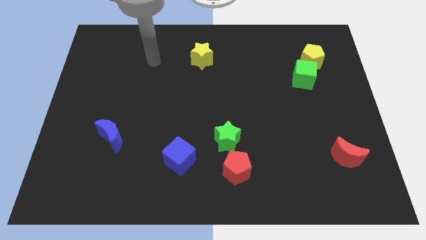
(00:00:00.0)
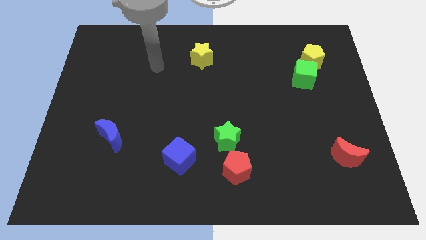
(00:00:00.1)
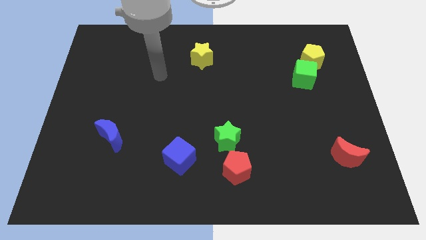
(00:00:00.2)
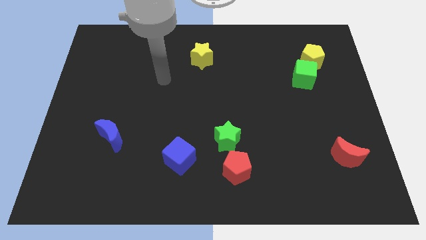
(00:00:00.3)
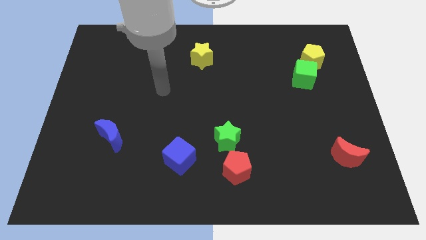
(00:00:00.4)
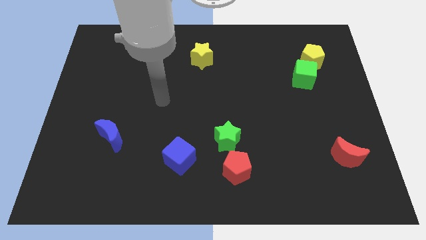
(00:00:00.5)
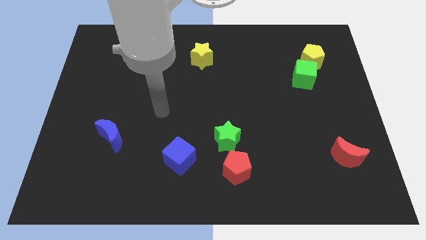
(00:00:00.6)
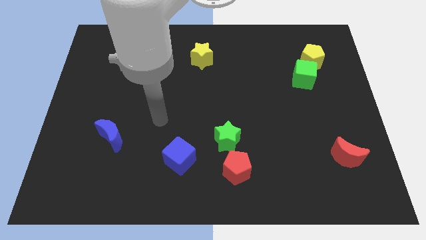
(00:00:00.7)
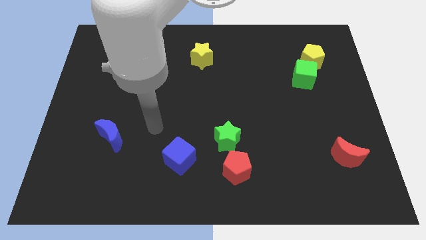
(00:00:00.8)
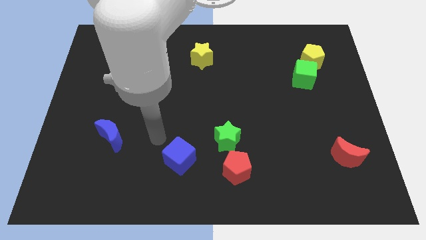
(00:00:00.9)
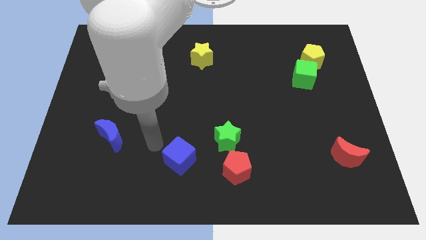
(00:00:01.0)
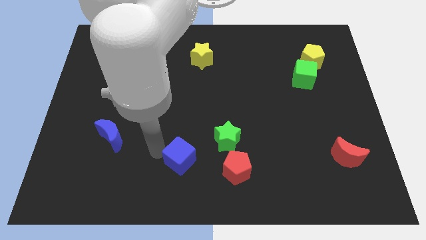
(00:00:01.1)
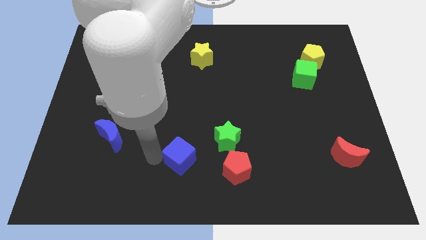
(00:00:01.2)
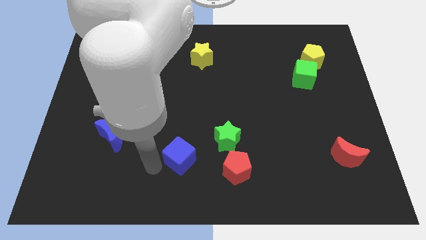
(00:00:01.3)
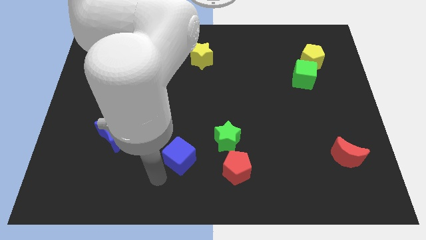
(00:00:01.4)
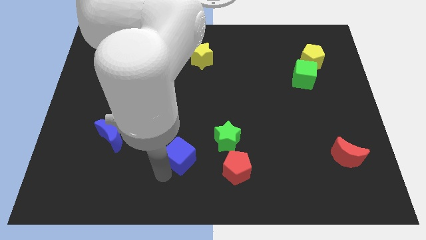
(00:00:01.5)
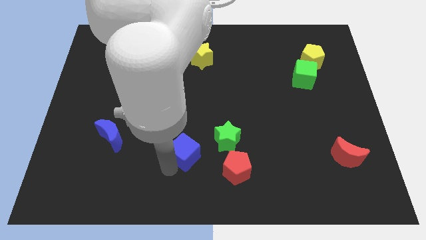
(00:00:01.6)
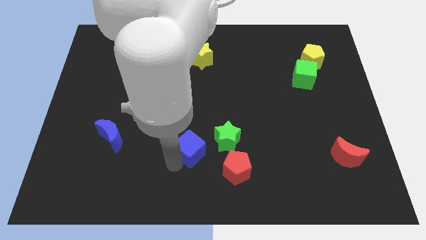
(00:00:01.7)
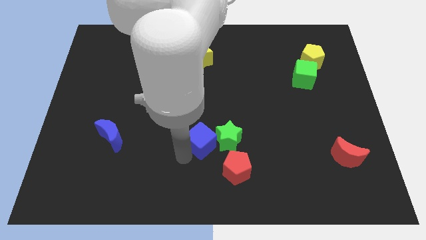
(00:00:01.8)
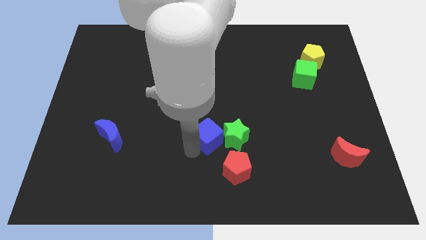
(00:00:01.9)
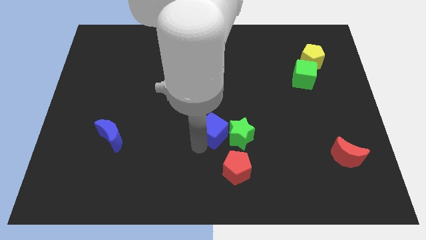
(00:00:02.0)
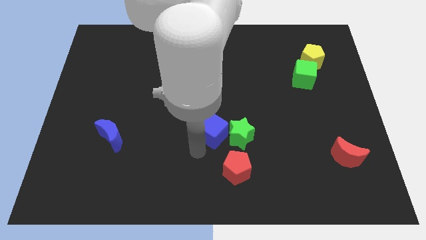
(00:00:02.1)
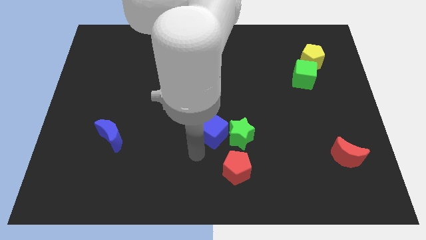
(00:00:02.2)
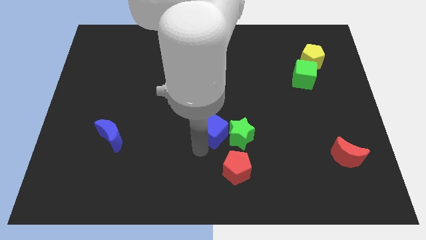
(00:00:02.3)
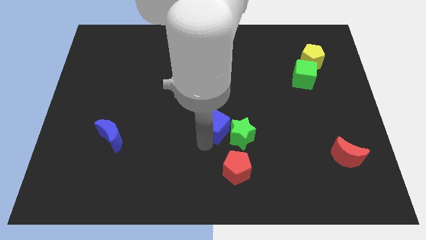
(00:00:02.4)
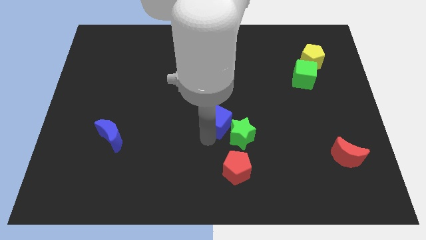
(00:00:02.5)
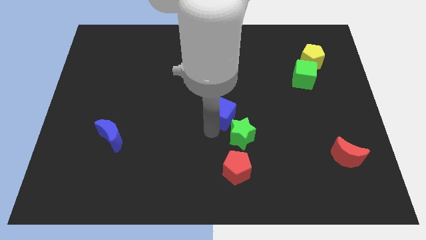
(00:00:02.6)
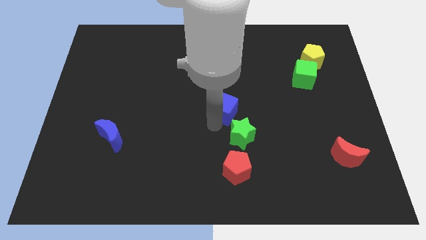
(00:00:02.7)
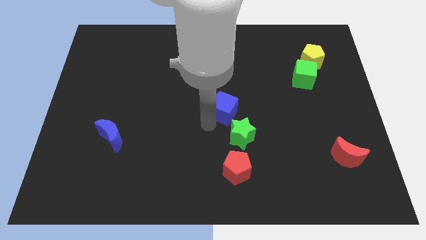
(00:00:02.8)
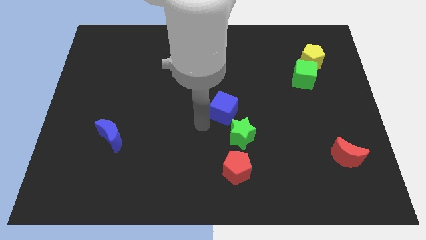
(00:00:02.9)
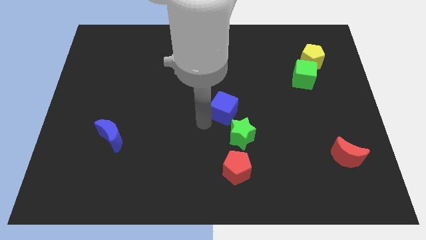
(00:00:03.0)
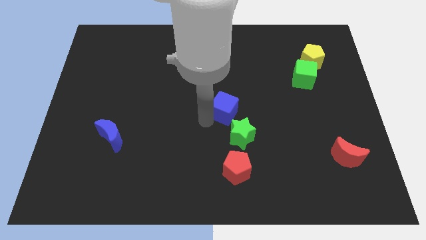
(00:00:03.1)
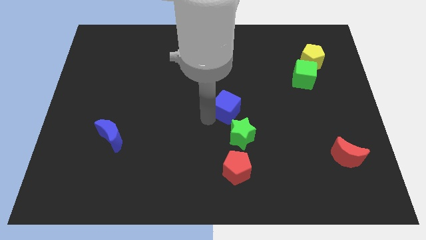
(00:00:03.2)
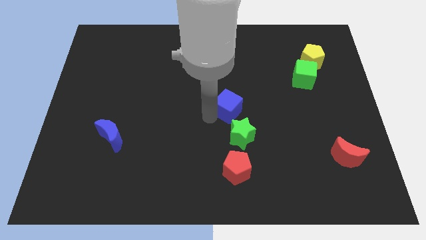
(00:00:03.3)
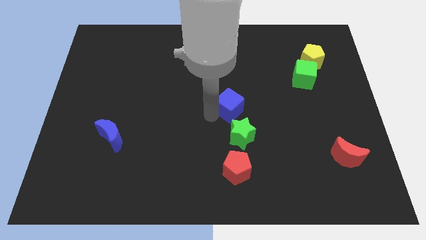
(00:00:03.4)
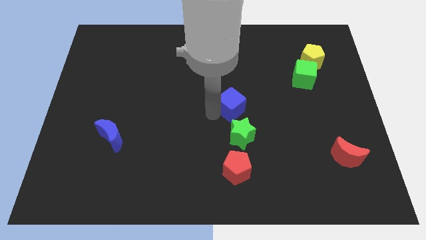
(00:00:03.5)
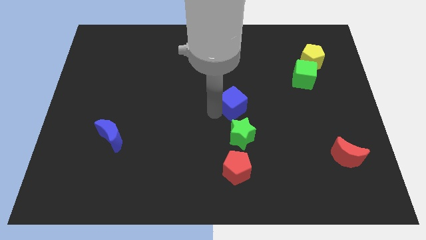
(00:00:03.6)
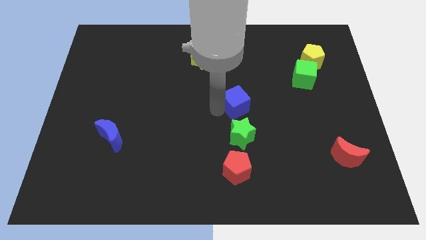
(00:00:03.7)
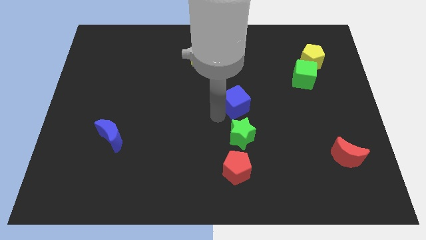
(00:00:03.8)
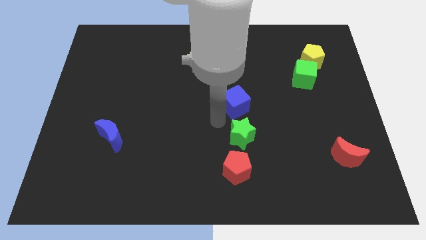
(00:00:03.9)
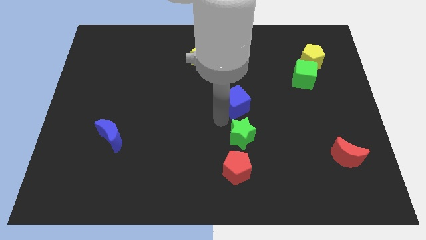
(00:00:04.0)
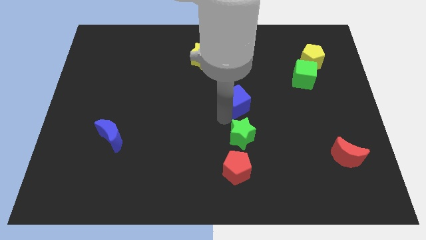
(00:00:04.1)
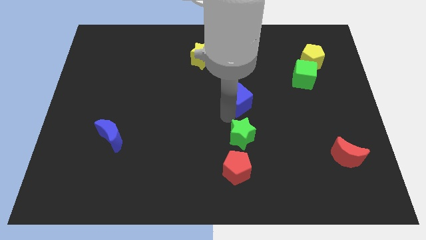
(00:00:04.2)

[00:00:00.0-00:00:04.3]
push the blue cube upwards and then to the right

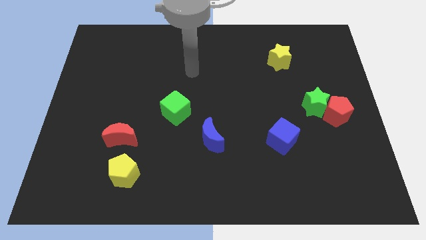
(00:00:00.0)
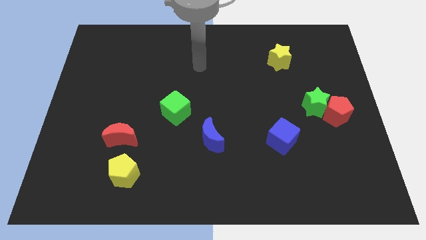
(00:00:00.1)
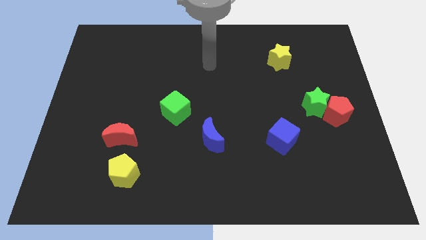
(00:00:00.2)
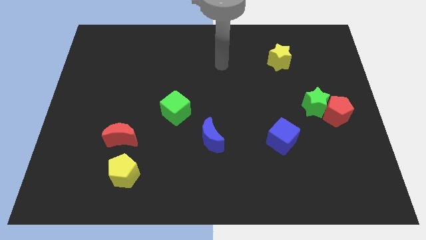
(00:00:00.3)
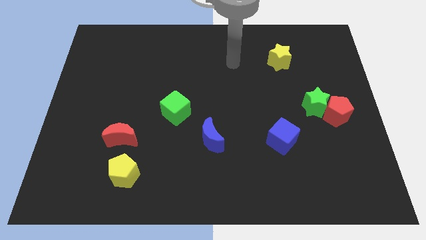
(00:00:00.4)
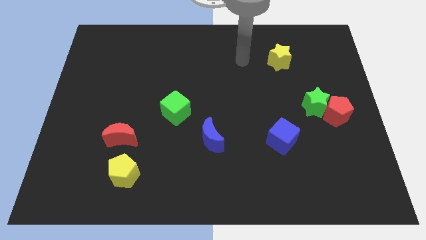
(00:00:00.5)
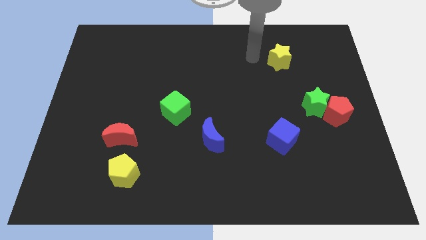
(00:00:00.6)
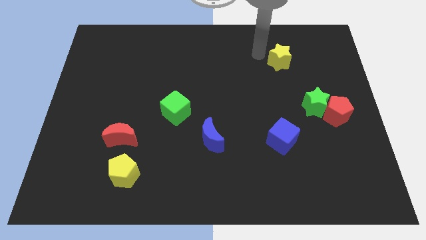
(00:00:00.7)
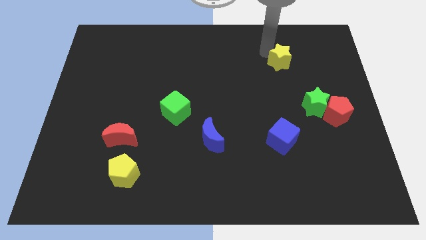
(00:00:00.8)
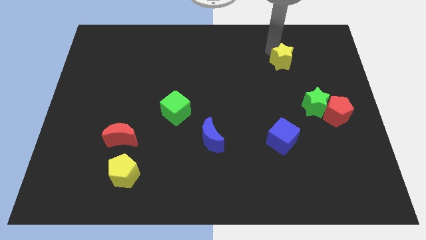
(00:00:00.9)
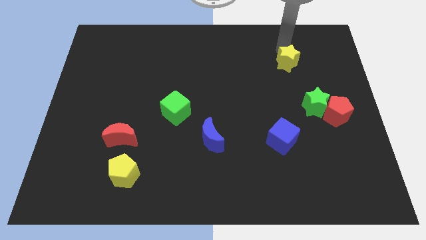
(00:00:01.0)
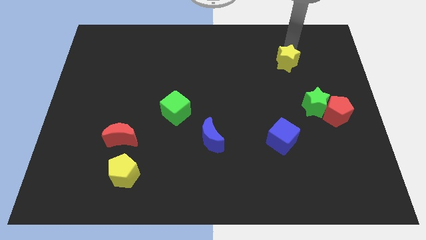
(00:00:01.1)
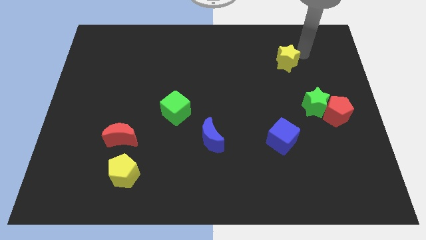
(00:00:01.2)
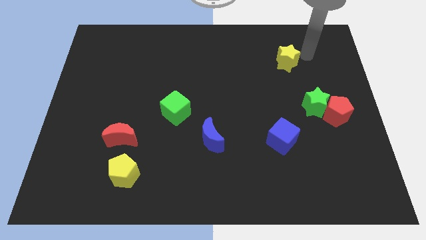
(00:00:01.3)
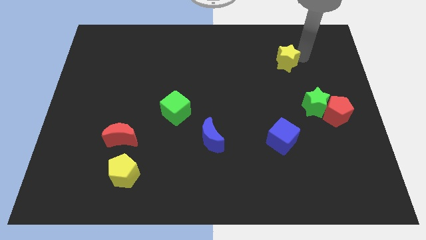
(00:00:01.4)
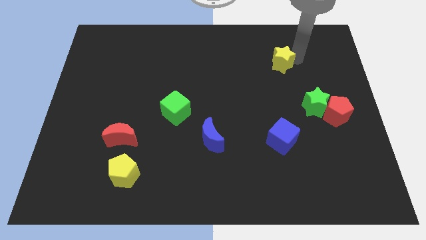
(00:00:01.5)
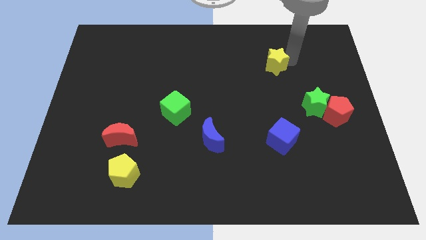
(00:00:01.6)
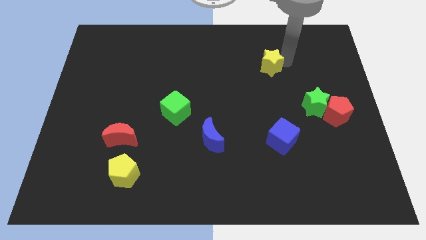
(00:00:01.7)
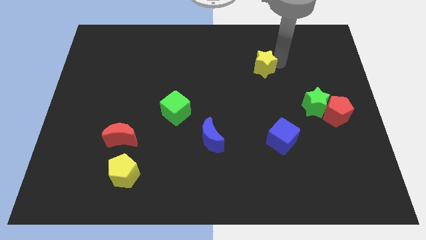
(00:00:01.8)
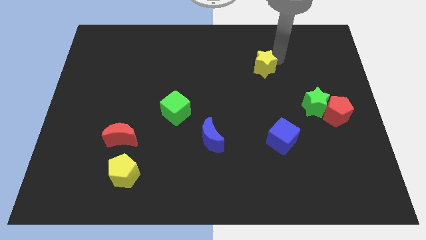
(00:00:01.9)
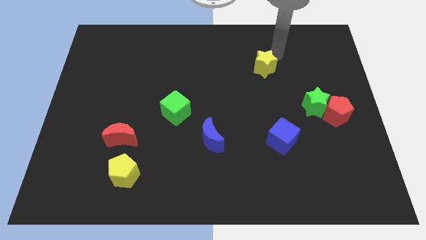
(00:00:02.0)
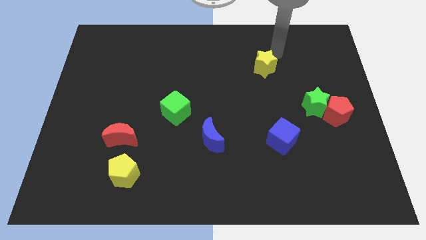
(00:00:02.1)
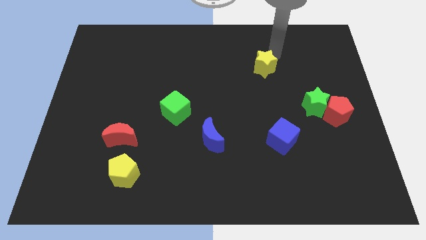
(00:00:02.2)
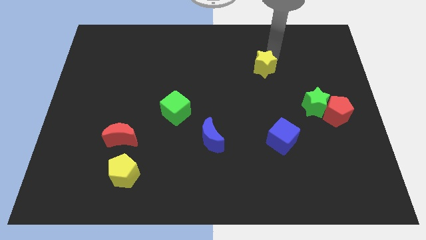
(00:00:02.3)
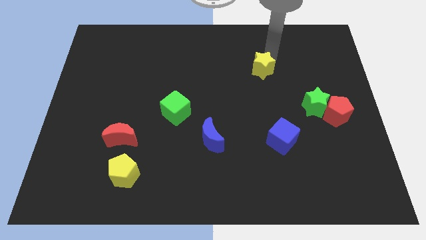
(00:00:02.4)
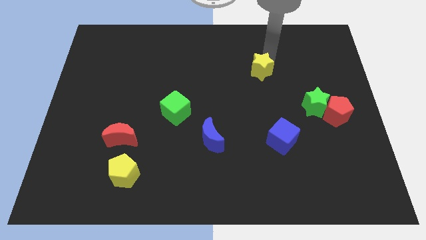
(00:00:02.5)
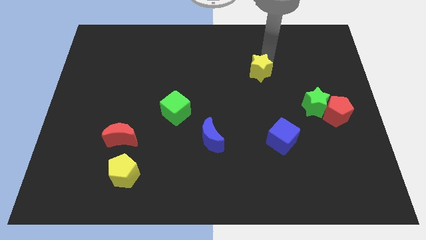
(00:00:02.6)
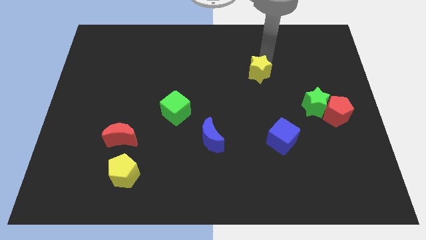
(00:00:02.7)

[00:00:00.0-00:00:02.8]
push the yellow star somewhat downwards and then to the left

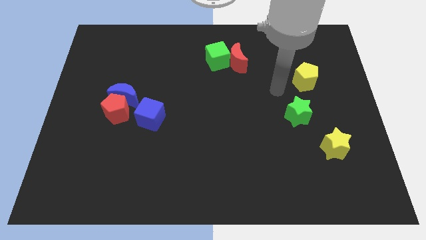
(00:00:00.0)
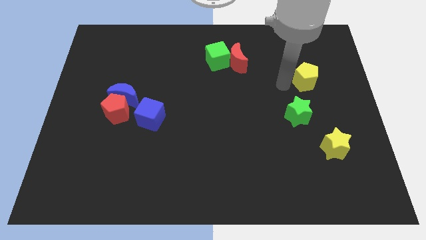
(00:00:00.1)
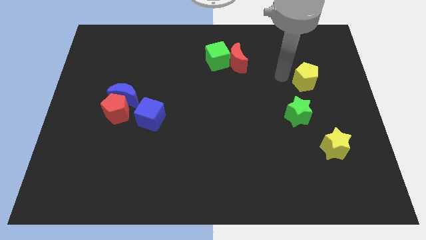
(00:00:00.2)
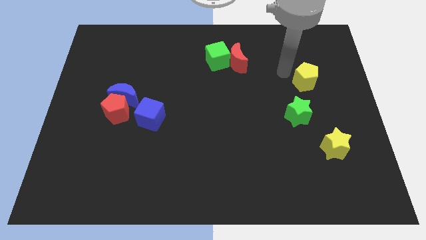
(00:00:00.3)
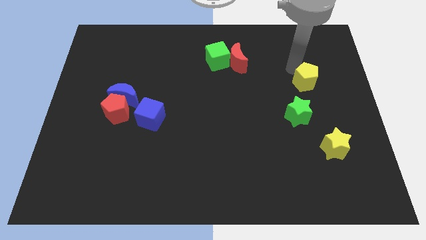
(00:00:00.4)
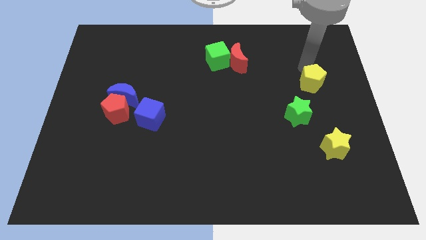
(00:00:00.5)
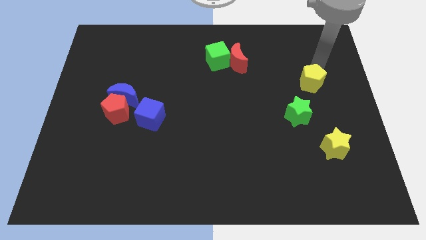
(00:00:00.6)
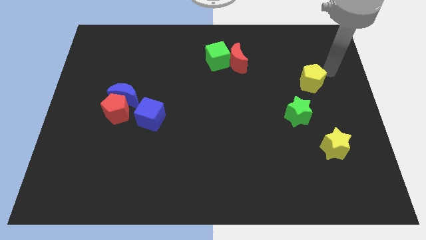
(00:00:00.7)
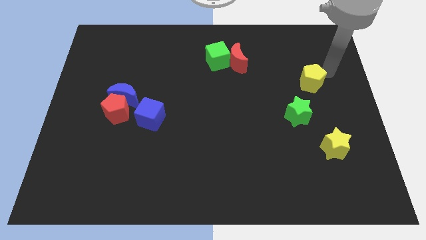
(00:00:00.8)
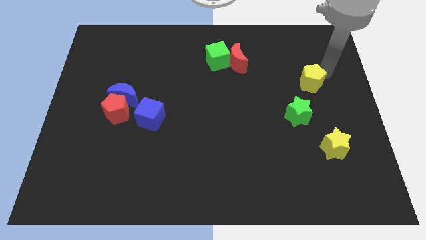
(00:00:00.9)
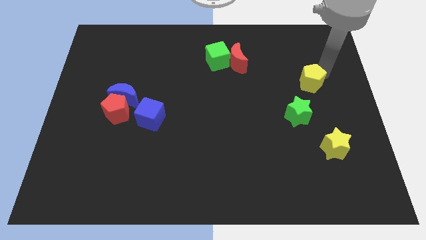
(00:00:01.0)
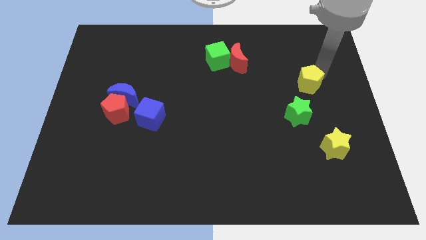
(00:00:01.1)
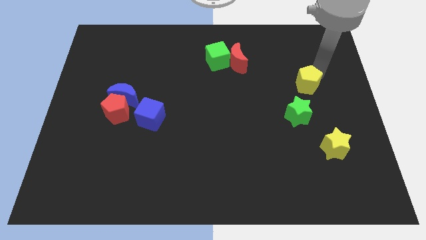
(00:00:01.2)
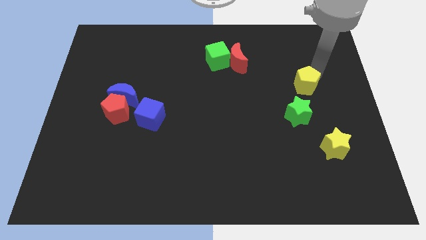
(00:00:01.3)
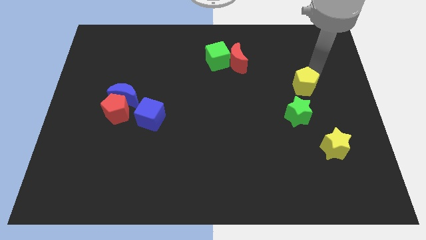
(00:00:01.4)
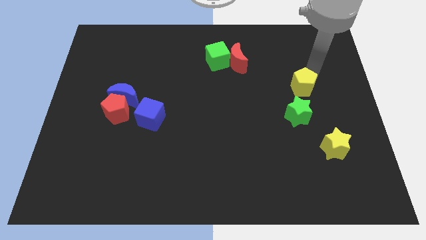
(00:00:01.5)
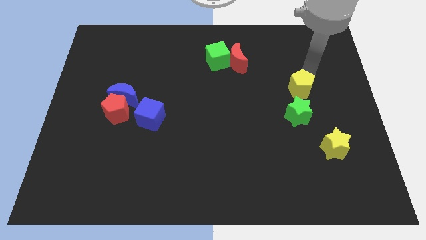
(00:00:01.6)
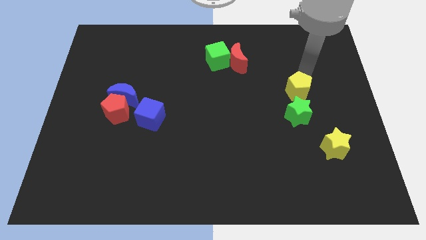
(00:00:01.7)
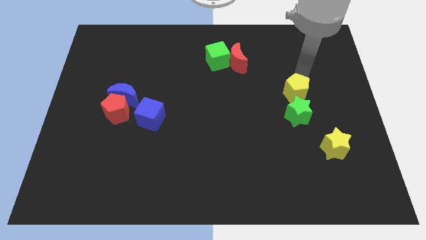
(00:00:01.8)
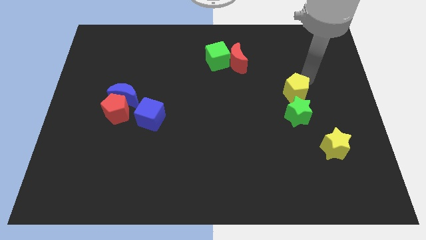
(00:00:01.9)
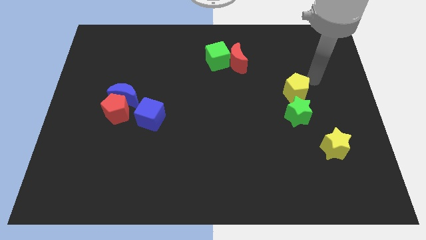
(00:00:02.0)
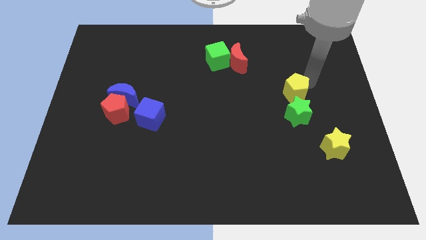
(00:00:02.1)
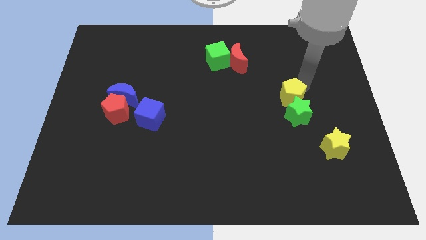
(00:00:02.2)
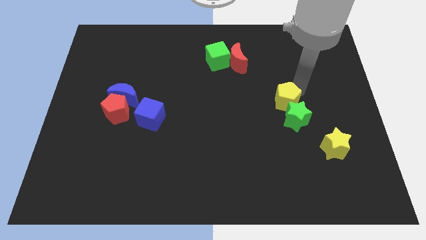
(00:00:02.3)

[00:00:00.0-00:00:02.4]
push the yellow pentagon downwards and to the left diagonally a little bit
